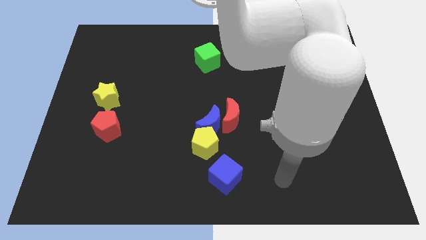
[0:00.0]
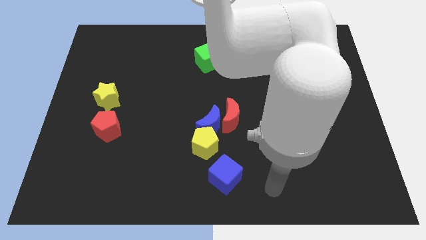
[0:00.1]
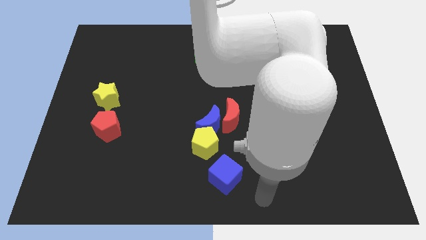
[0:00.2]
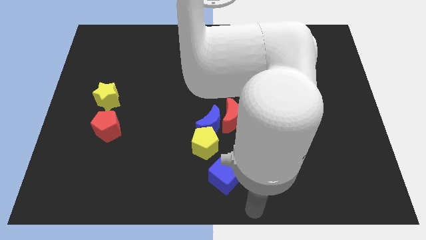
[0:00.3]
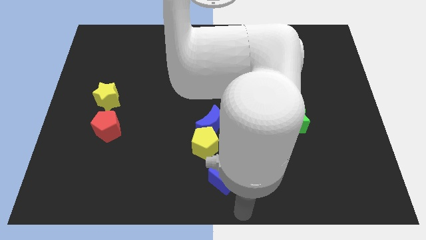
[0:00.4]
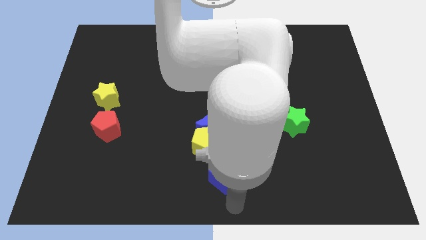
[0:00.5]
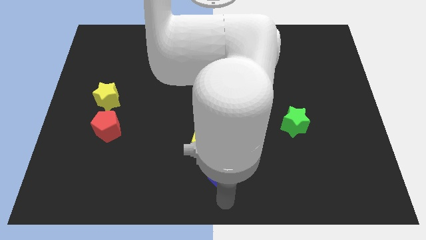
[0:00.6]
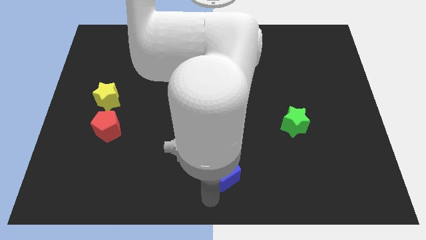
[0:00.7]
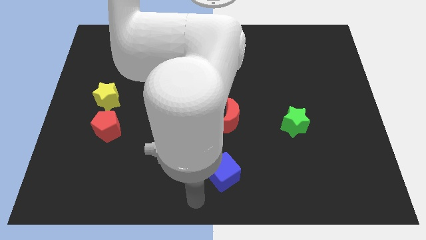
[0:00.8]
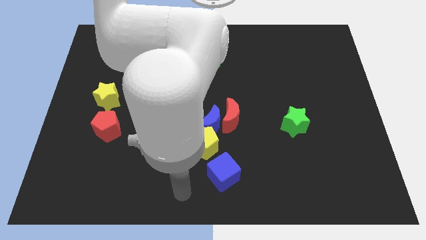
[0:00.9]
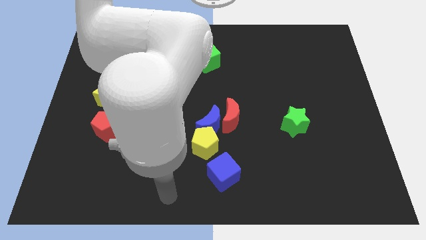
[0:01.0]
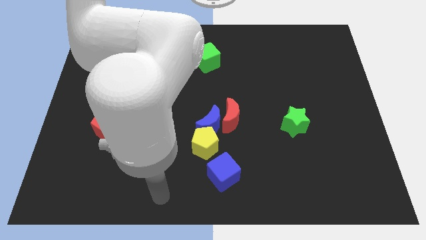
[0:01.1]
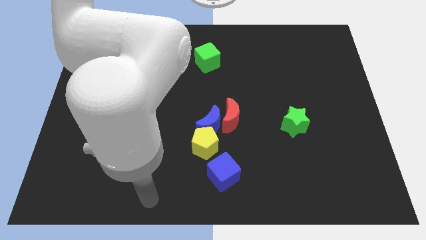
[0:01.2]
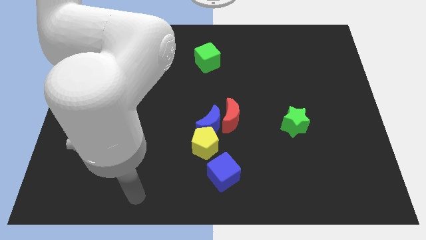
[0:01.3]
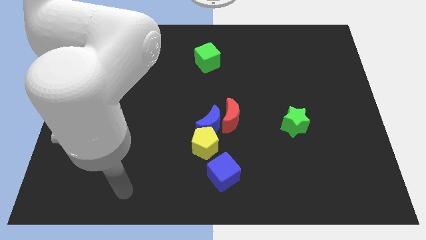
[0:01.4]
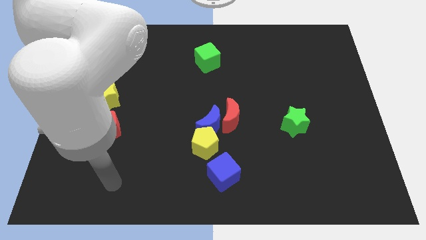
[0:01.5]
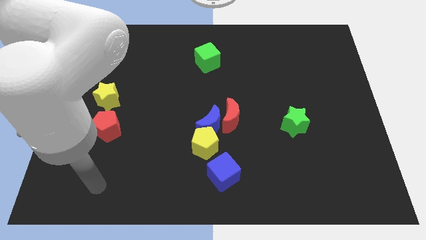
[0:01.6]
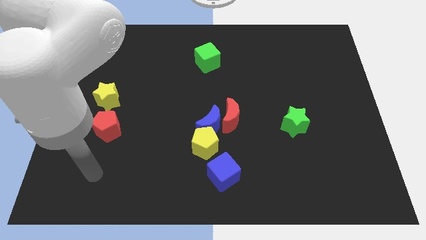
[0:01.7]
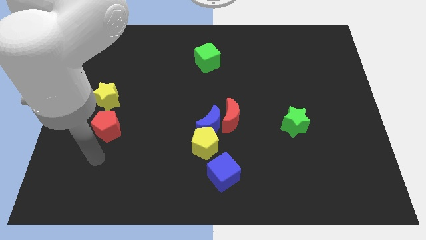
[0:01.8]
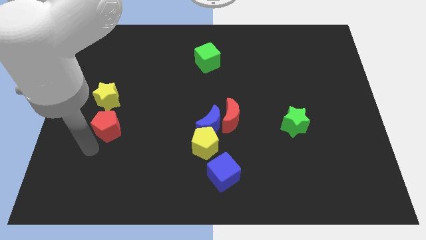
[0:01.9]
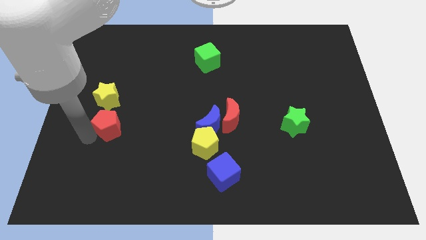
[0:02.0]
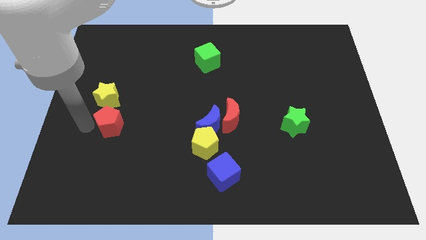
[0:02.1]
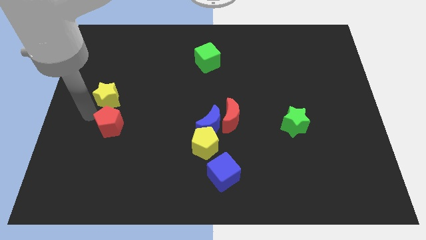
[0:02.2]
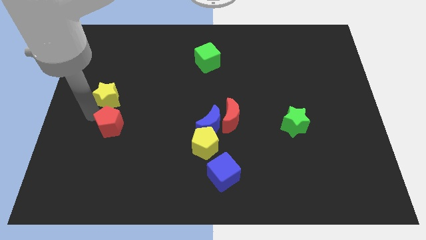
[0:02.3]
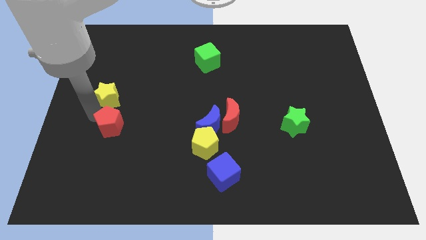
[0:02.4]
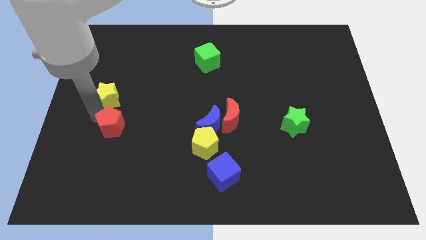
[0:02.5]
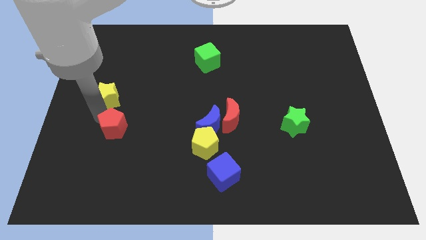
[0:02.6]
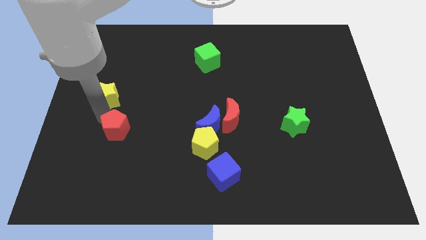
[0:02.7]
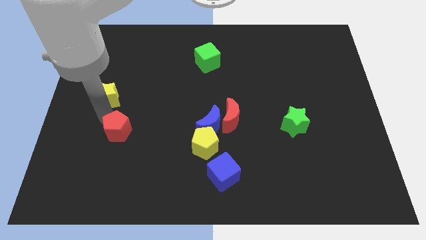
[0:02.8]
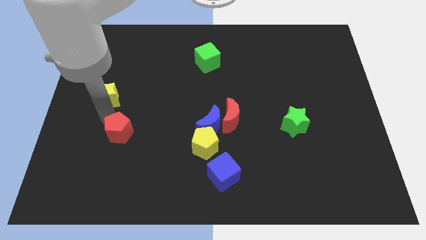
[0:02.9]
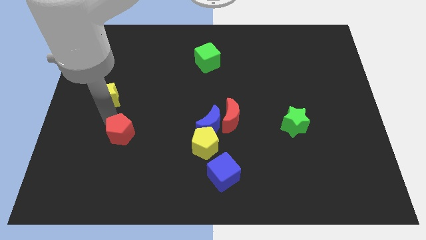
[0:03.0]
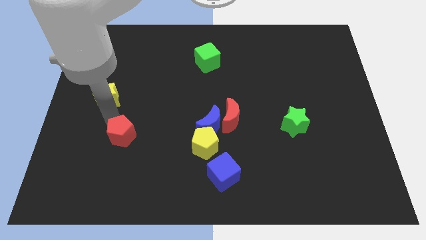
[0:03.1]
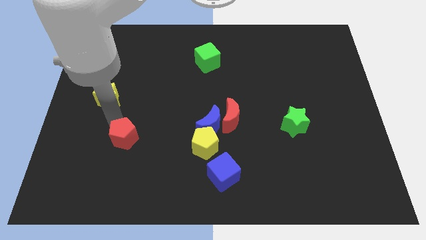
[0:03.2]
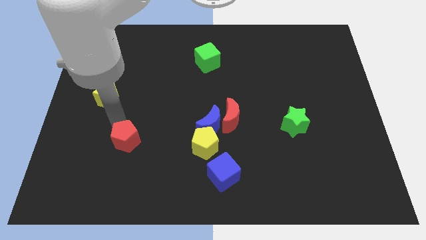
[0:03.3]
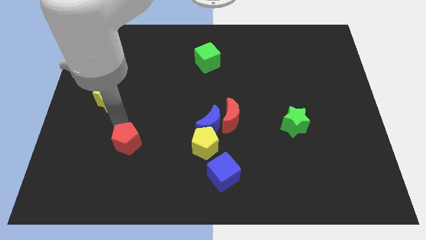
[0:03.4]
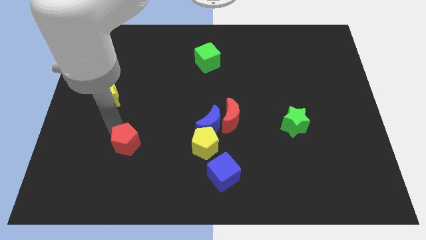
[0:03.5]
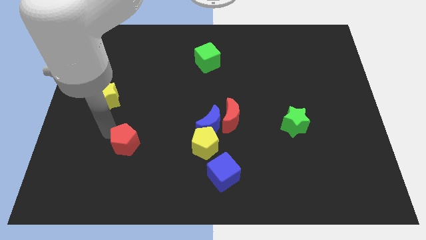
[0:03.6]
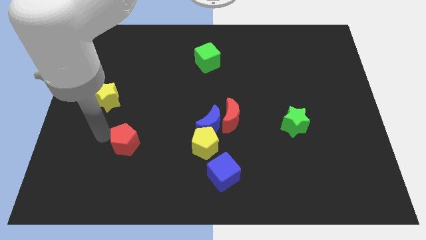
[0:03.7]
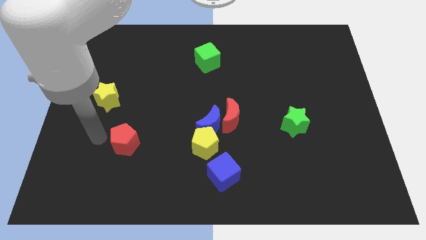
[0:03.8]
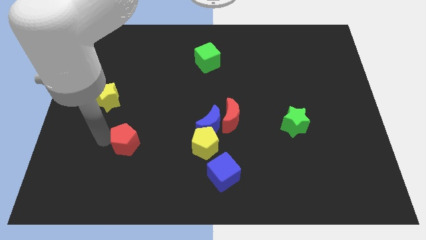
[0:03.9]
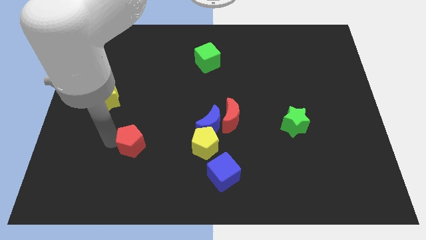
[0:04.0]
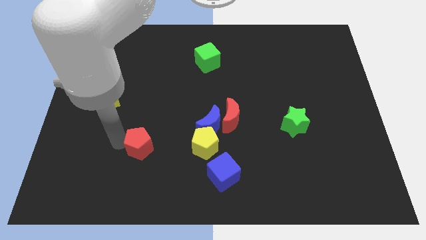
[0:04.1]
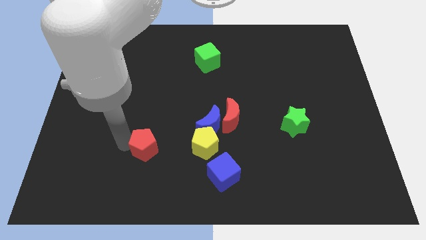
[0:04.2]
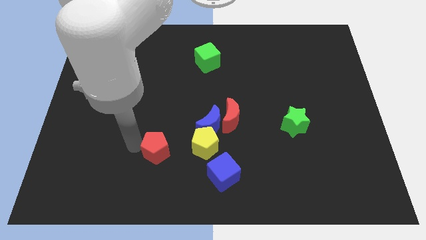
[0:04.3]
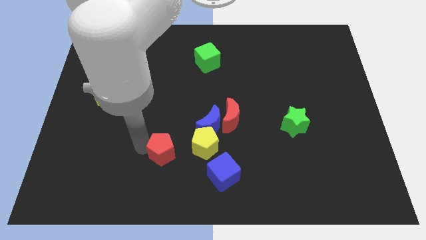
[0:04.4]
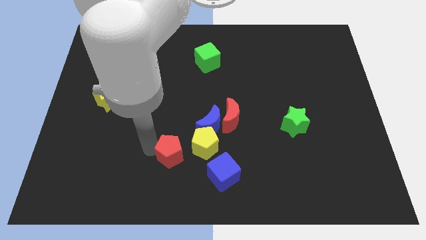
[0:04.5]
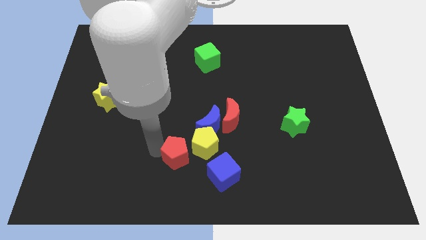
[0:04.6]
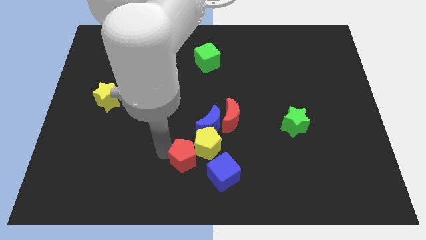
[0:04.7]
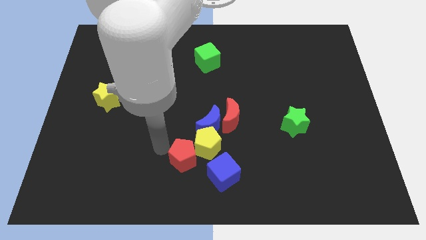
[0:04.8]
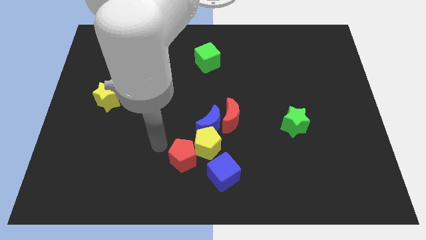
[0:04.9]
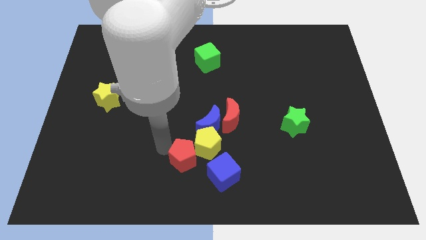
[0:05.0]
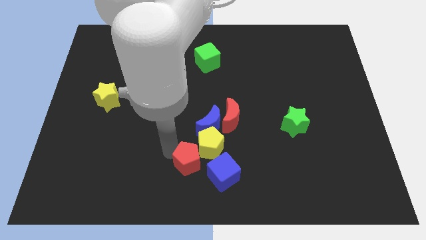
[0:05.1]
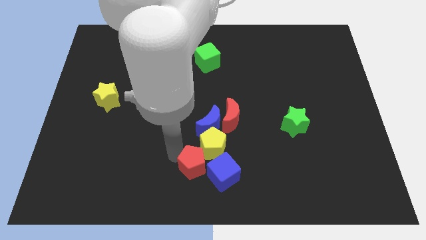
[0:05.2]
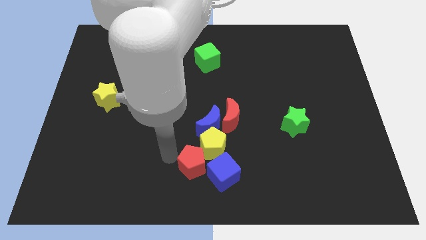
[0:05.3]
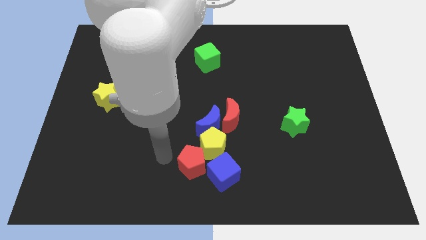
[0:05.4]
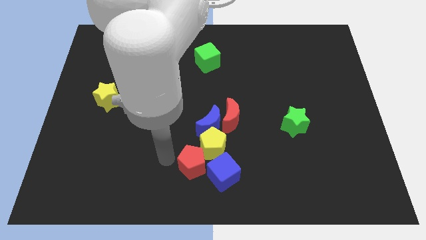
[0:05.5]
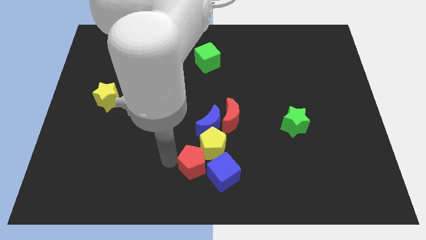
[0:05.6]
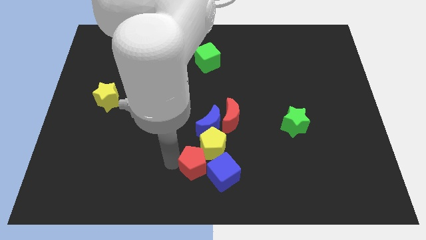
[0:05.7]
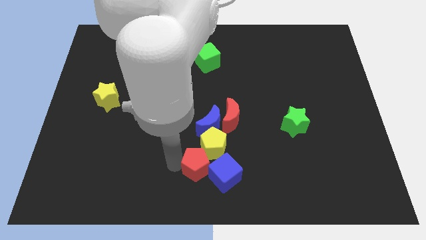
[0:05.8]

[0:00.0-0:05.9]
put the red pentagon to the blue cube
